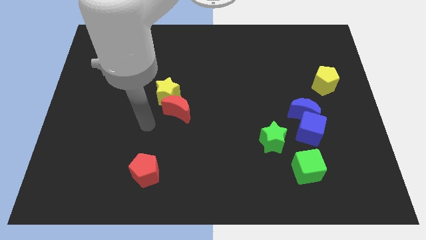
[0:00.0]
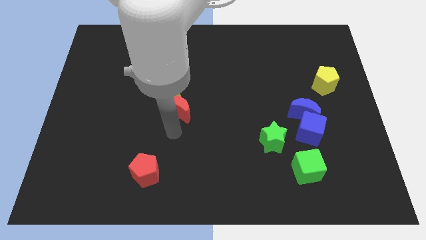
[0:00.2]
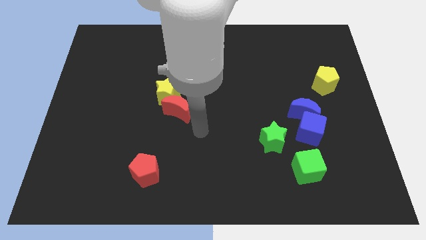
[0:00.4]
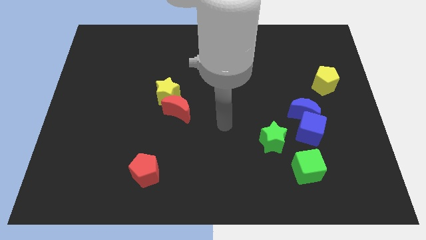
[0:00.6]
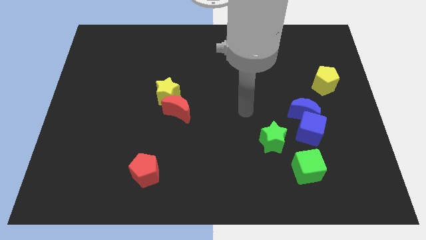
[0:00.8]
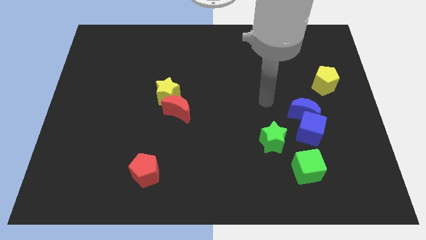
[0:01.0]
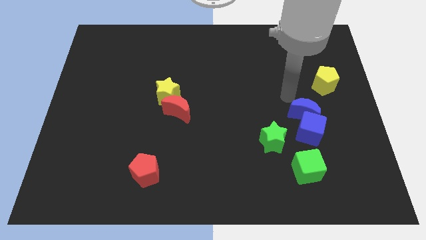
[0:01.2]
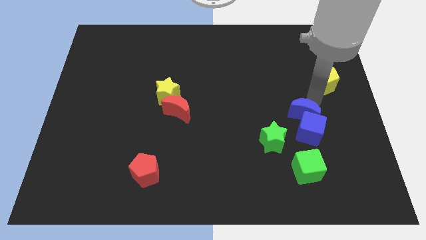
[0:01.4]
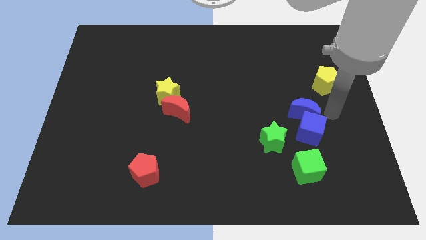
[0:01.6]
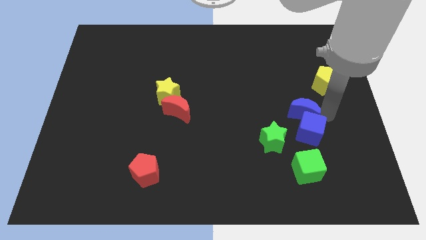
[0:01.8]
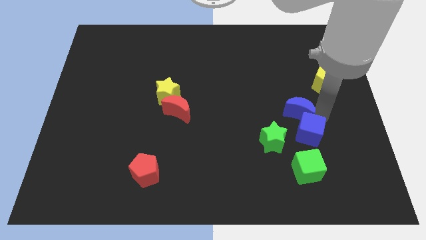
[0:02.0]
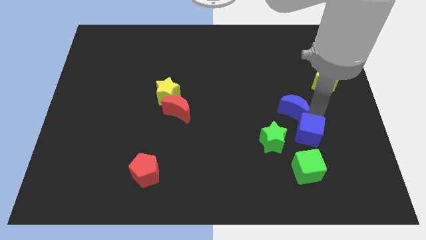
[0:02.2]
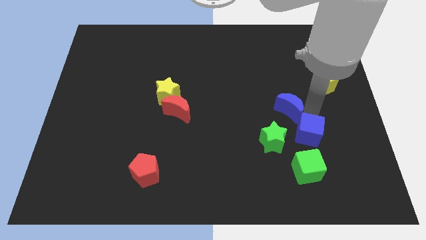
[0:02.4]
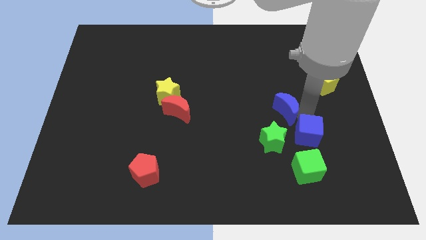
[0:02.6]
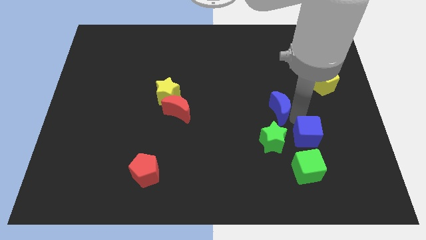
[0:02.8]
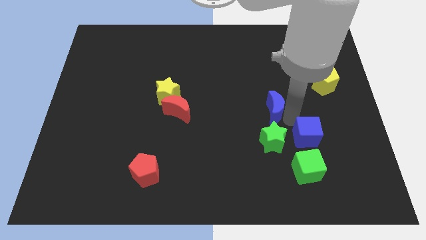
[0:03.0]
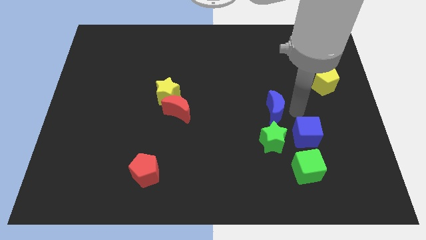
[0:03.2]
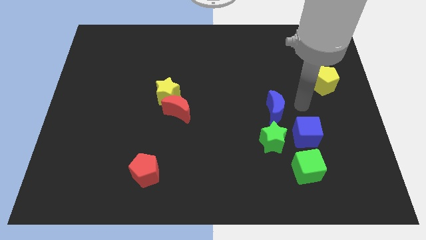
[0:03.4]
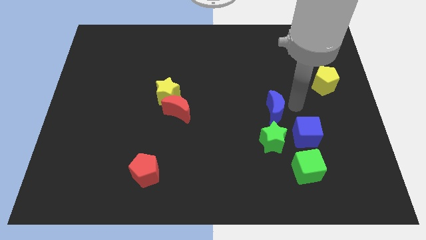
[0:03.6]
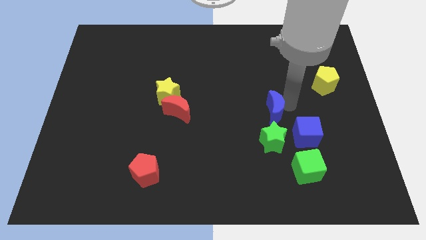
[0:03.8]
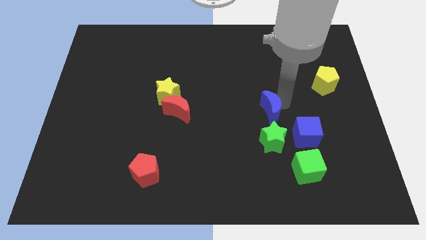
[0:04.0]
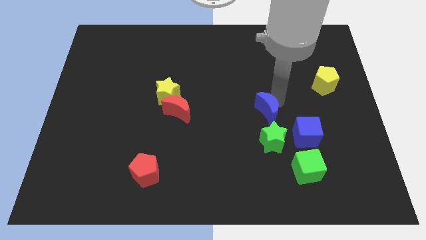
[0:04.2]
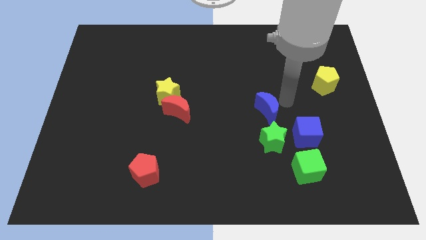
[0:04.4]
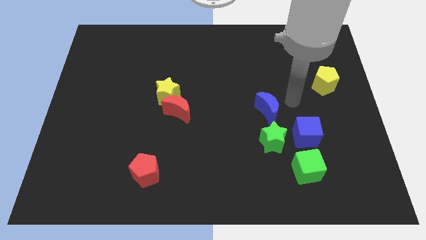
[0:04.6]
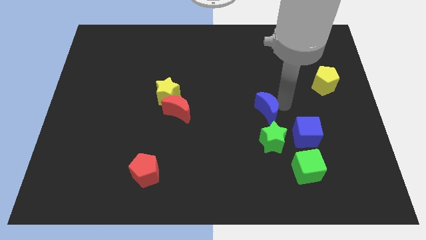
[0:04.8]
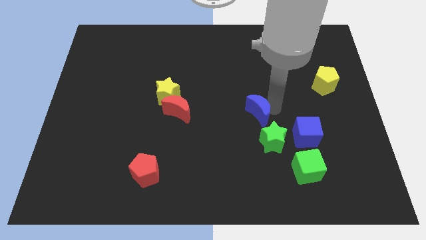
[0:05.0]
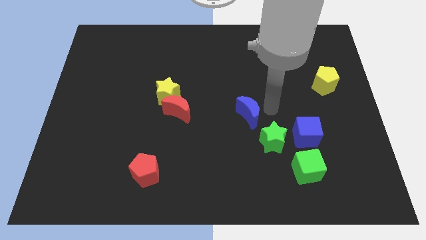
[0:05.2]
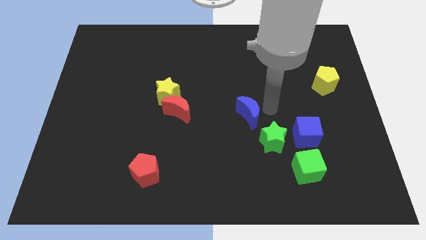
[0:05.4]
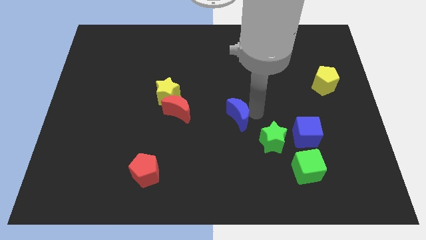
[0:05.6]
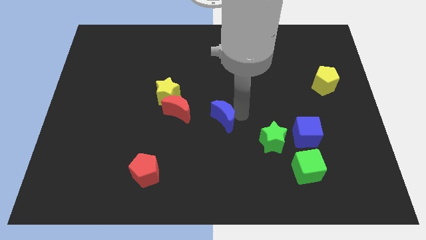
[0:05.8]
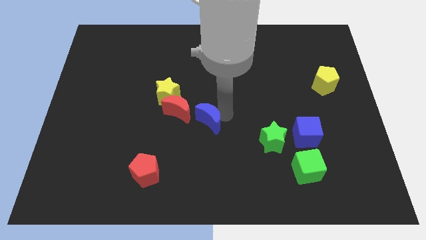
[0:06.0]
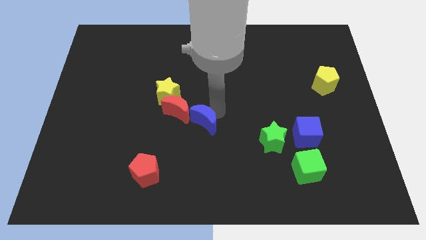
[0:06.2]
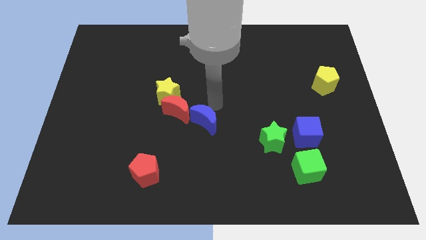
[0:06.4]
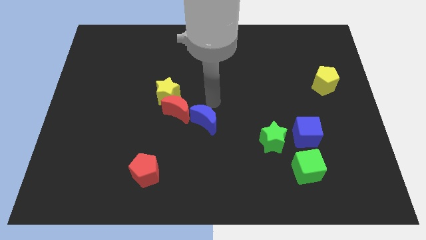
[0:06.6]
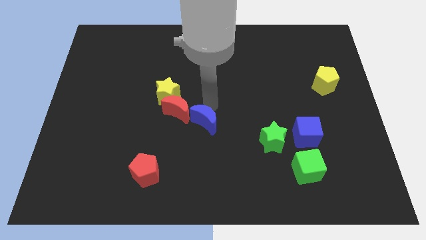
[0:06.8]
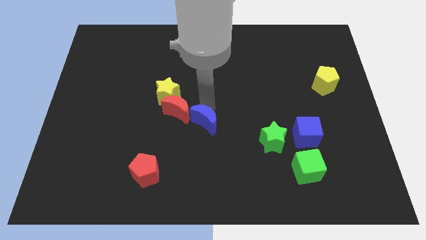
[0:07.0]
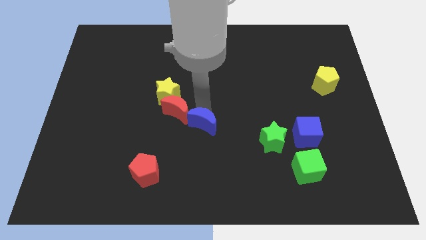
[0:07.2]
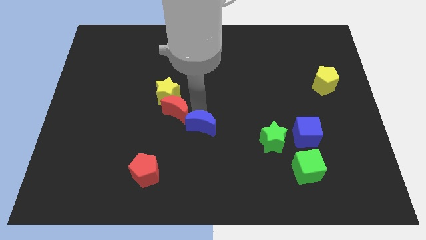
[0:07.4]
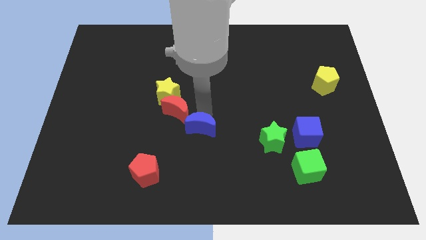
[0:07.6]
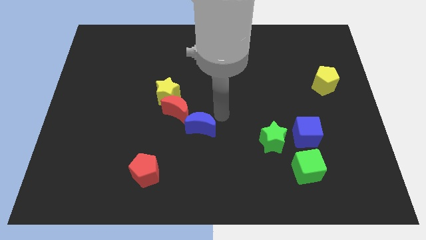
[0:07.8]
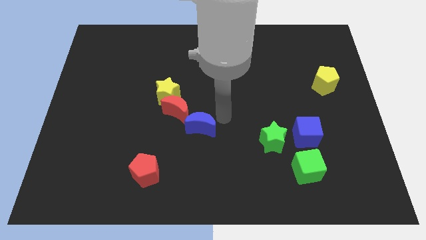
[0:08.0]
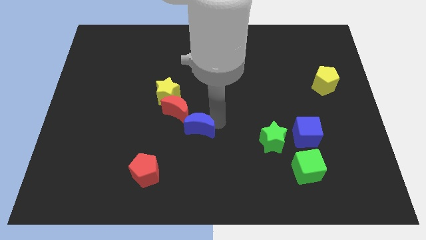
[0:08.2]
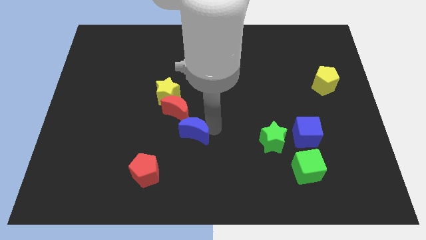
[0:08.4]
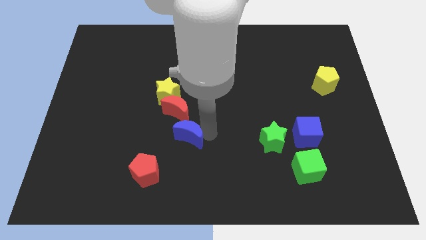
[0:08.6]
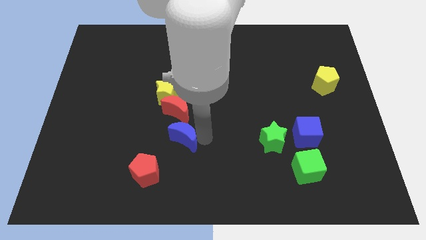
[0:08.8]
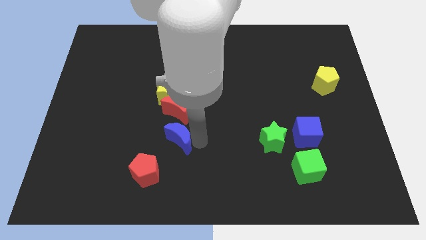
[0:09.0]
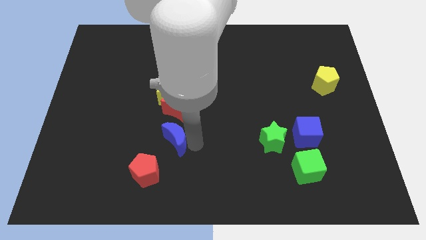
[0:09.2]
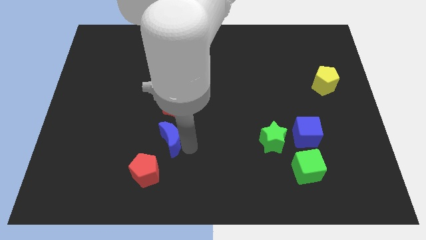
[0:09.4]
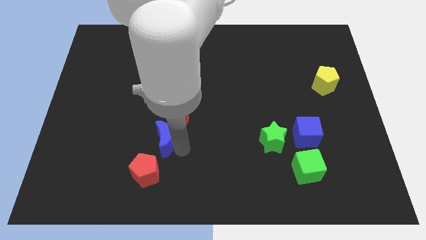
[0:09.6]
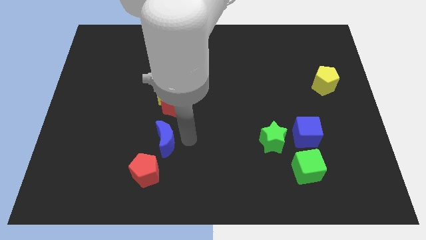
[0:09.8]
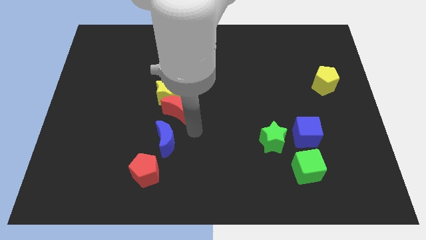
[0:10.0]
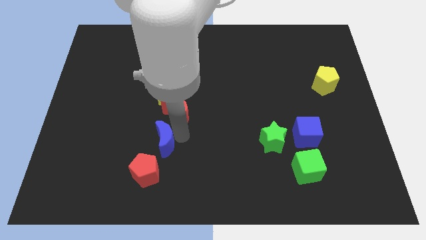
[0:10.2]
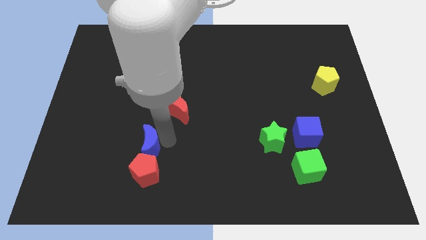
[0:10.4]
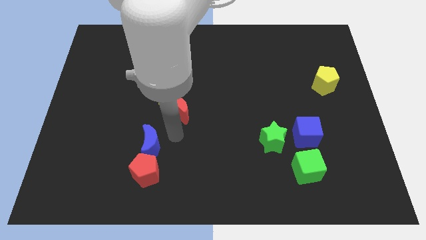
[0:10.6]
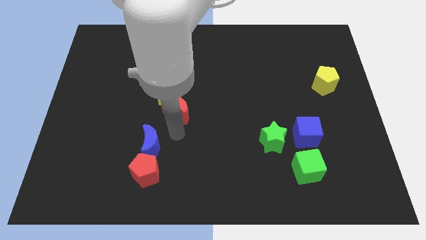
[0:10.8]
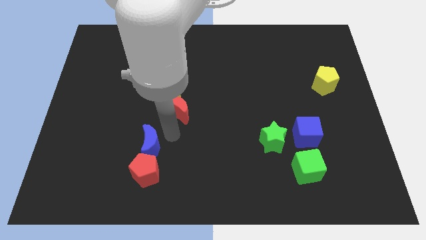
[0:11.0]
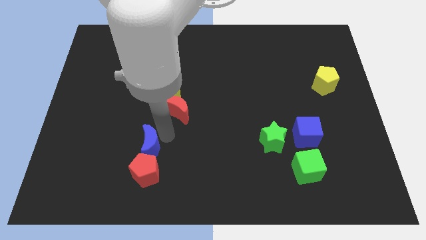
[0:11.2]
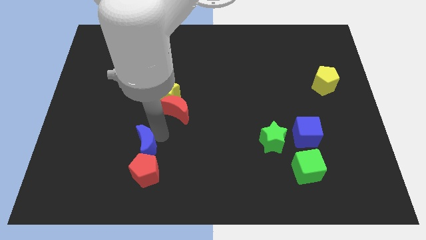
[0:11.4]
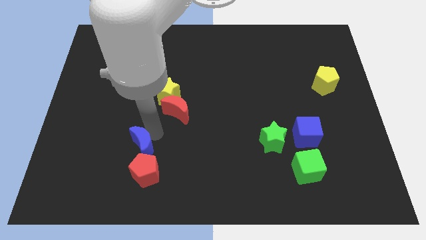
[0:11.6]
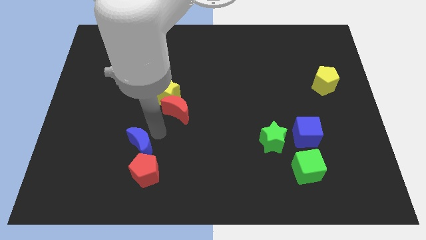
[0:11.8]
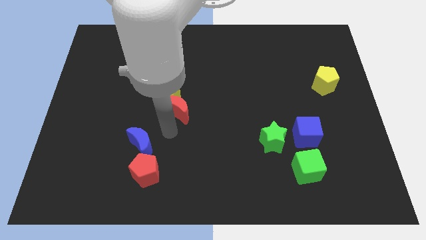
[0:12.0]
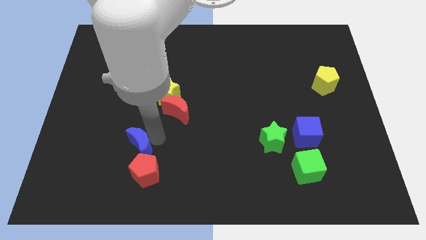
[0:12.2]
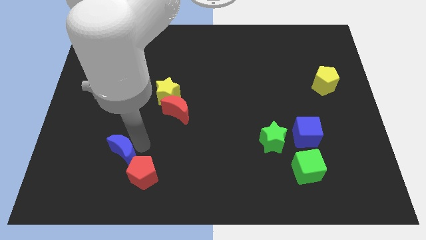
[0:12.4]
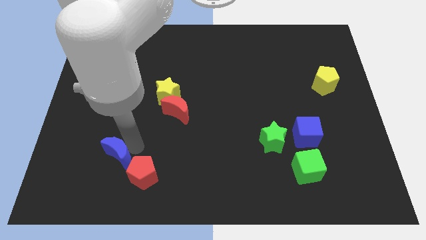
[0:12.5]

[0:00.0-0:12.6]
put the blue moon to the left of the red pentagon

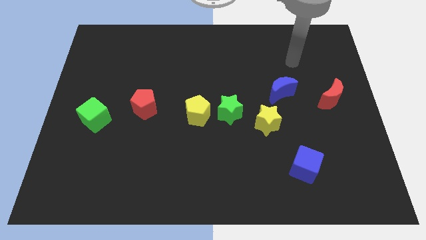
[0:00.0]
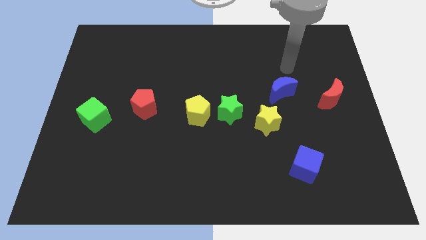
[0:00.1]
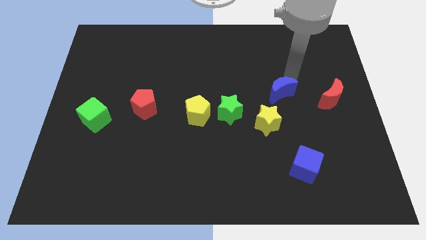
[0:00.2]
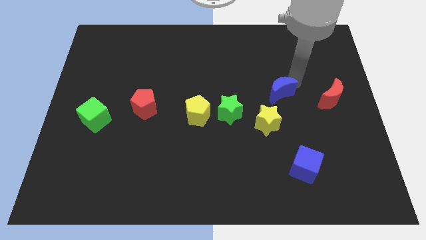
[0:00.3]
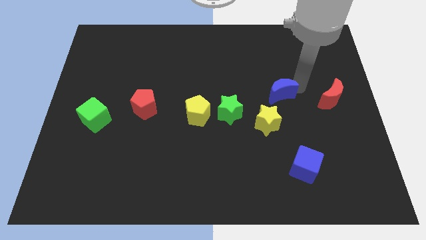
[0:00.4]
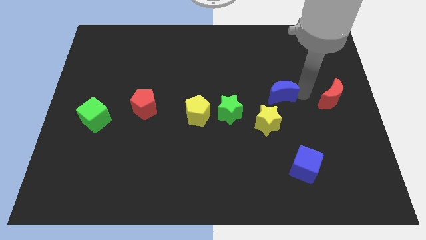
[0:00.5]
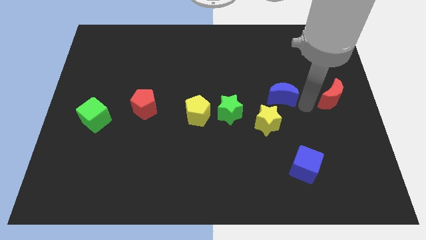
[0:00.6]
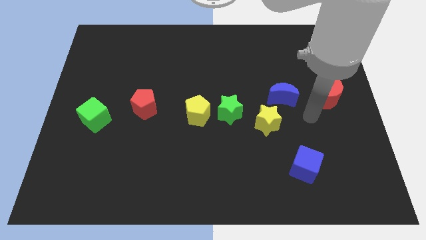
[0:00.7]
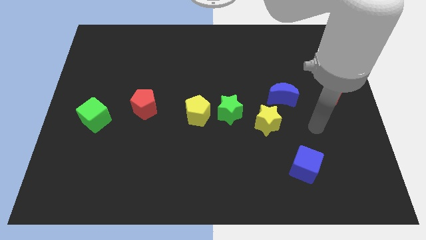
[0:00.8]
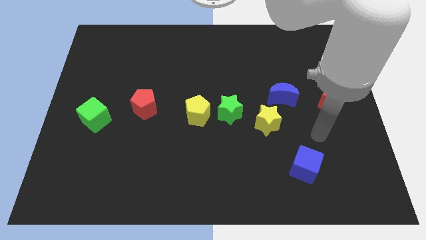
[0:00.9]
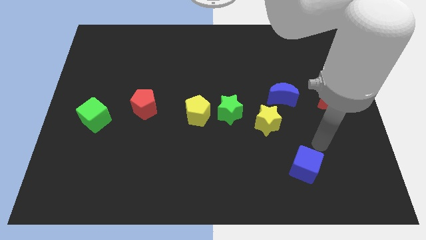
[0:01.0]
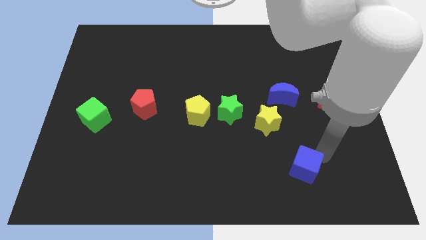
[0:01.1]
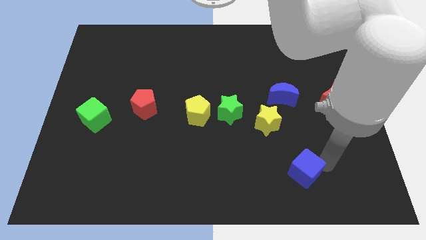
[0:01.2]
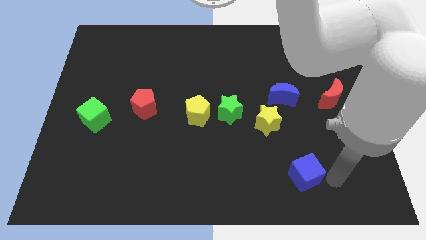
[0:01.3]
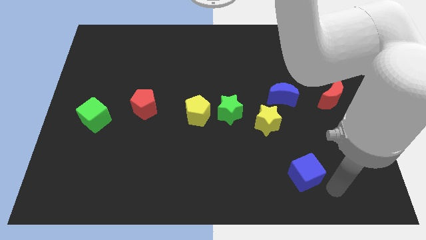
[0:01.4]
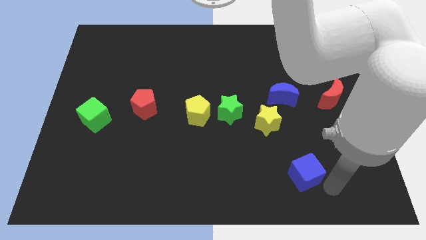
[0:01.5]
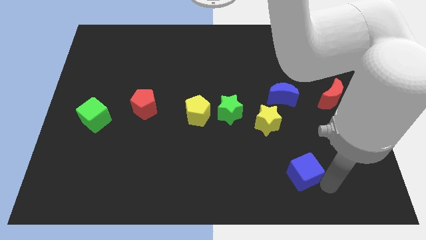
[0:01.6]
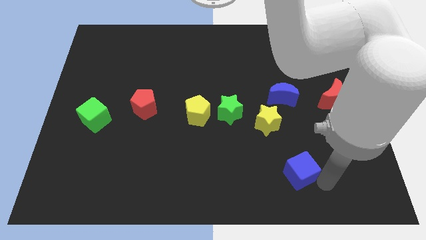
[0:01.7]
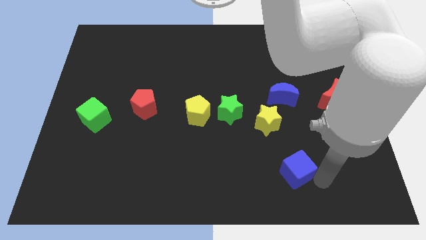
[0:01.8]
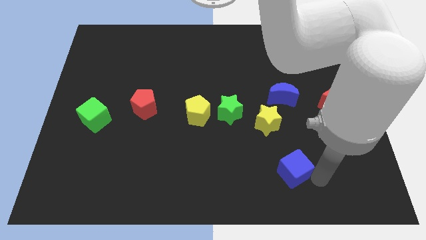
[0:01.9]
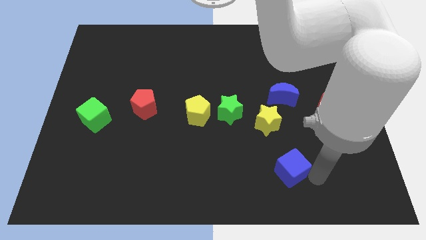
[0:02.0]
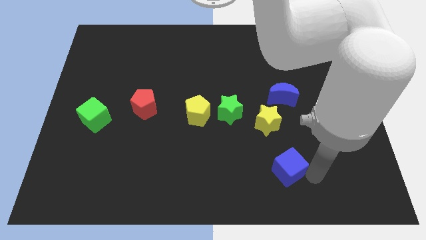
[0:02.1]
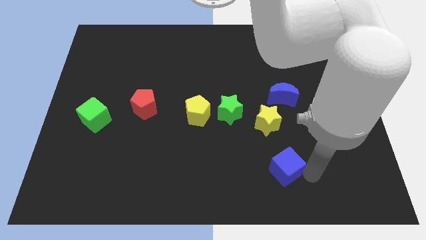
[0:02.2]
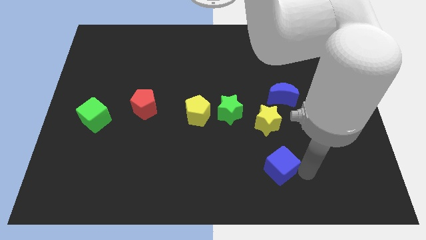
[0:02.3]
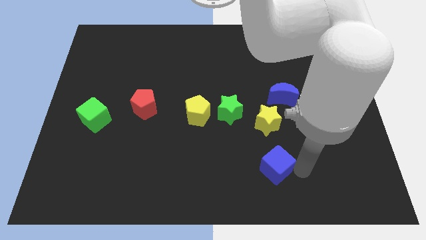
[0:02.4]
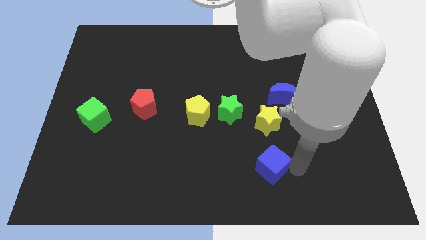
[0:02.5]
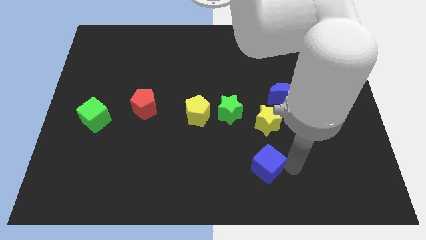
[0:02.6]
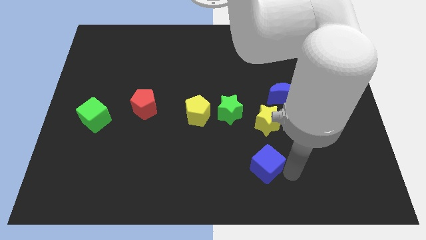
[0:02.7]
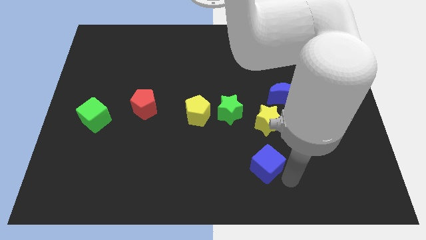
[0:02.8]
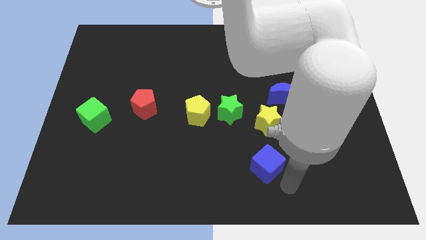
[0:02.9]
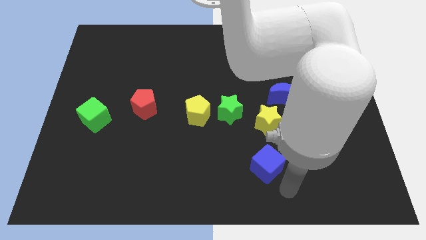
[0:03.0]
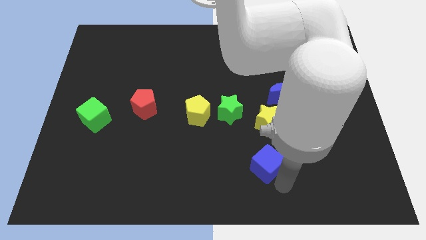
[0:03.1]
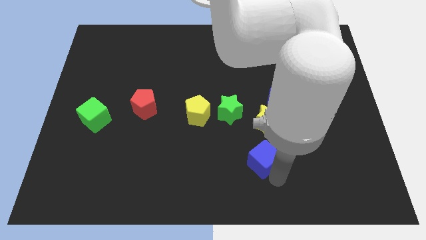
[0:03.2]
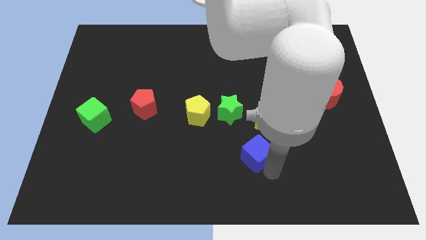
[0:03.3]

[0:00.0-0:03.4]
slide the blue cube to the bottom left of the yellow star
